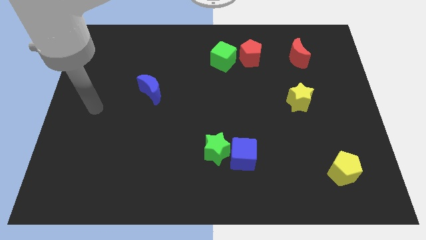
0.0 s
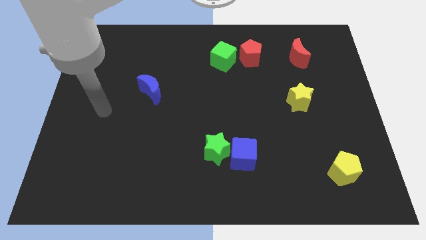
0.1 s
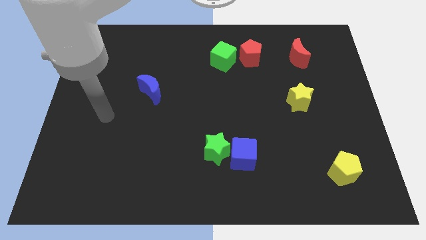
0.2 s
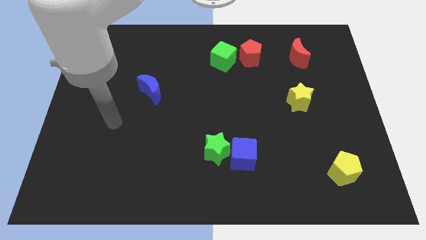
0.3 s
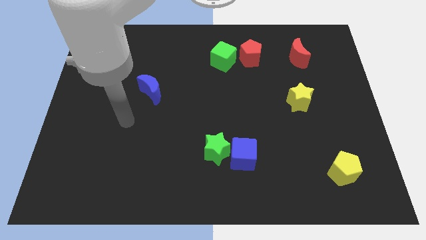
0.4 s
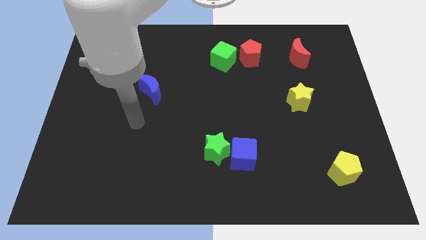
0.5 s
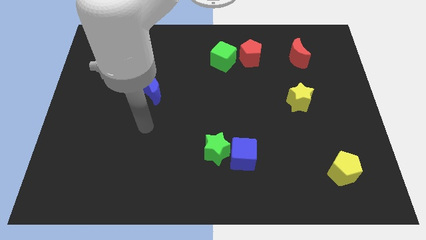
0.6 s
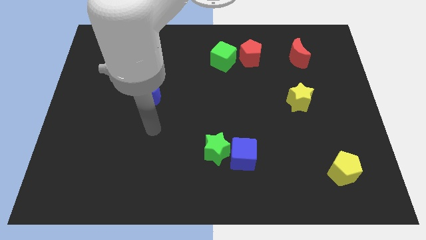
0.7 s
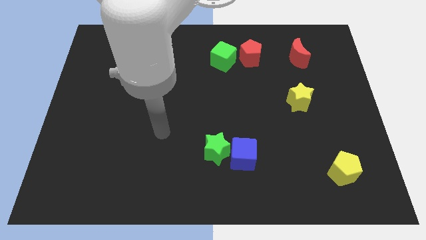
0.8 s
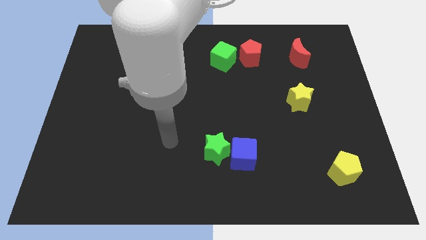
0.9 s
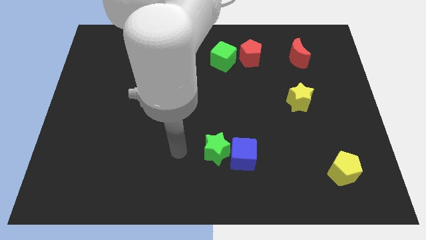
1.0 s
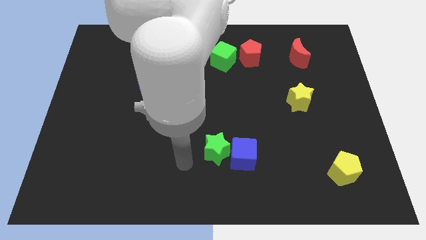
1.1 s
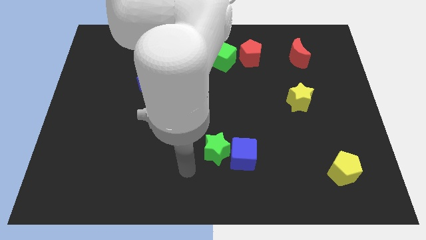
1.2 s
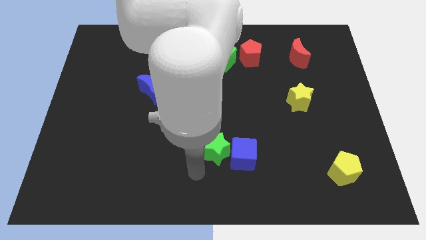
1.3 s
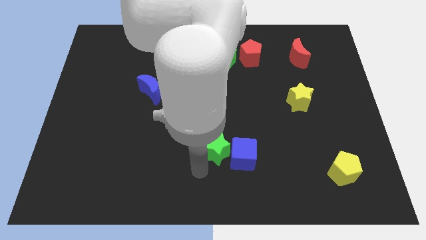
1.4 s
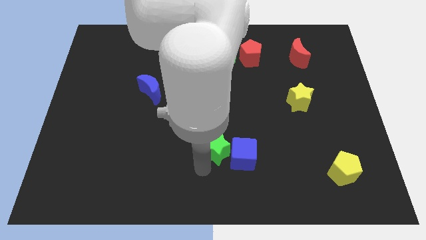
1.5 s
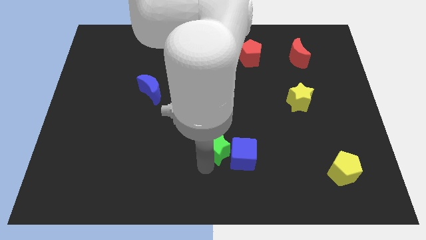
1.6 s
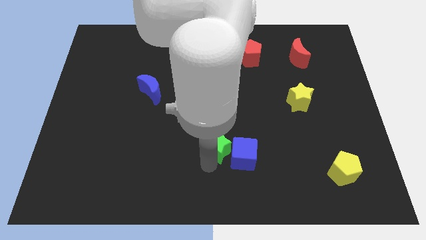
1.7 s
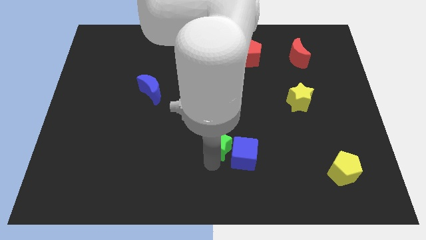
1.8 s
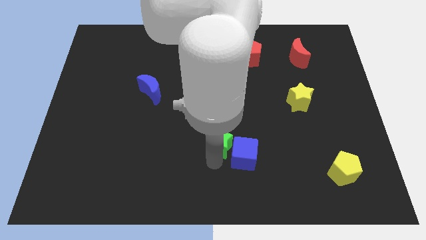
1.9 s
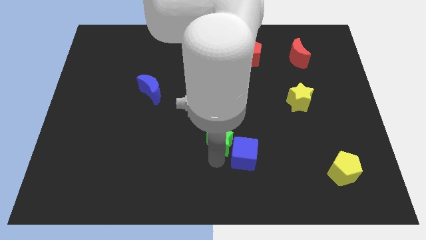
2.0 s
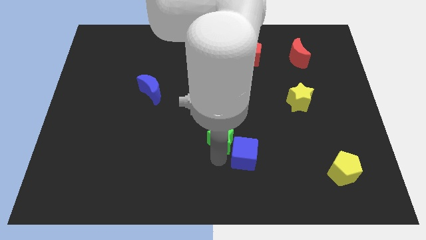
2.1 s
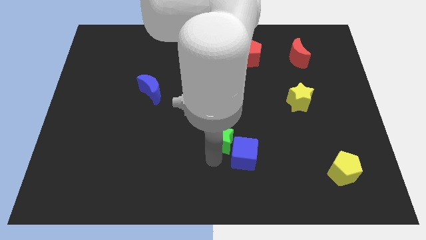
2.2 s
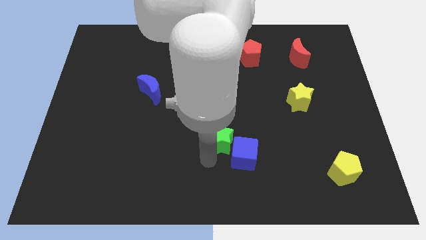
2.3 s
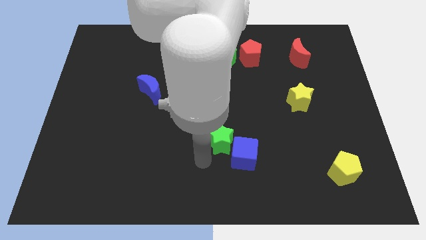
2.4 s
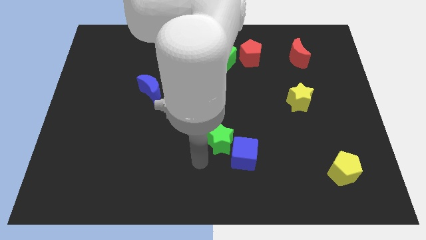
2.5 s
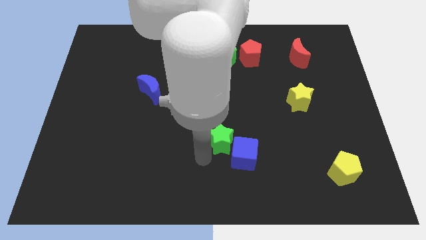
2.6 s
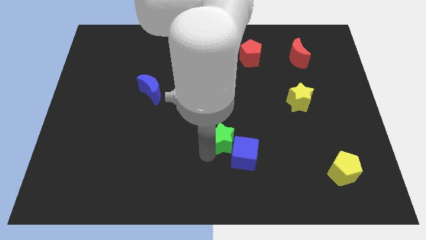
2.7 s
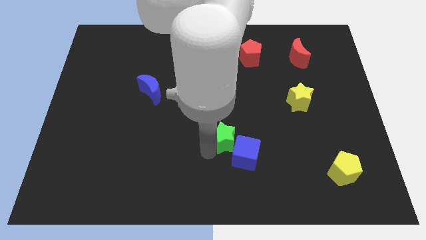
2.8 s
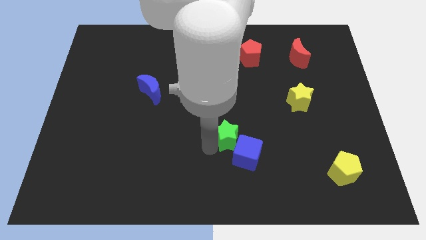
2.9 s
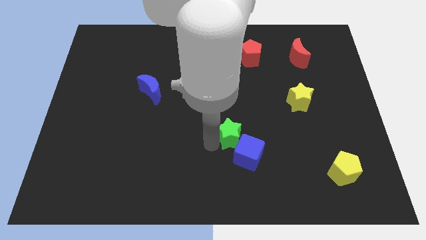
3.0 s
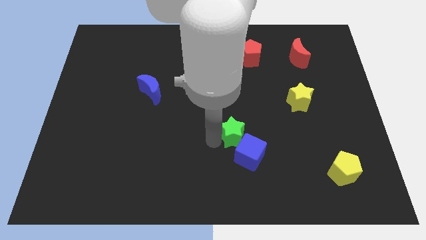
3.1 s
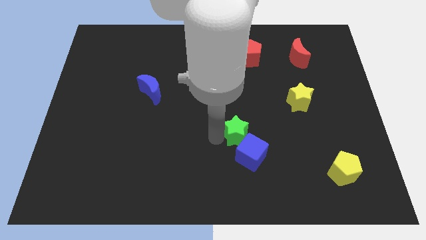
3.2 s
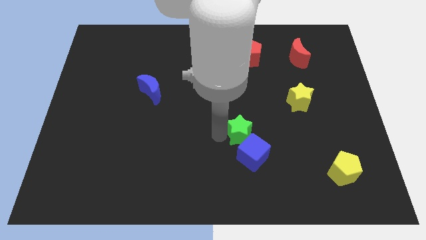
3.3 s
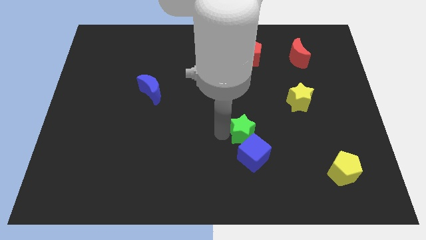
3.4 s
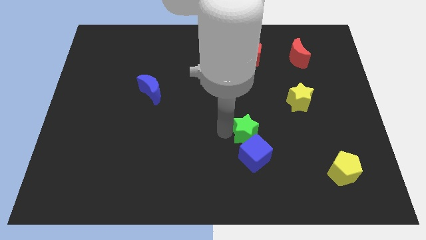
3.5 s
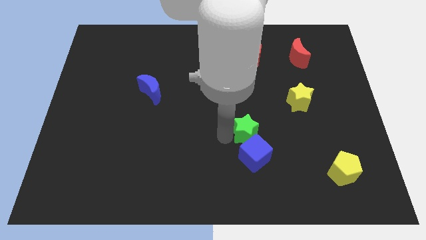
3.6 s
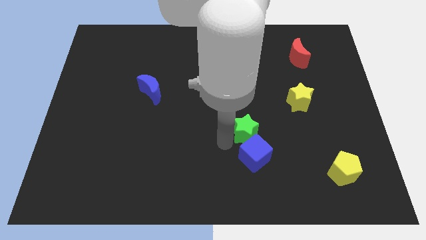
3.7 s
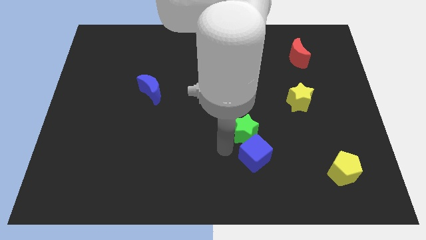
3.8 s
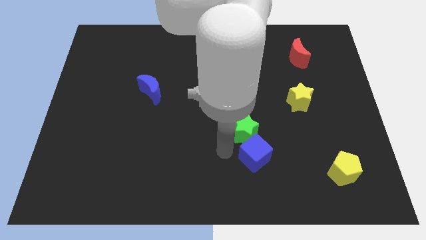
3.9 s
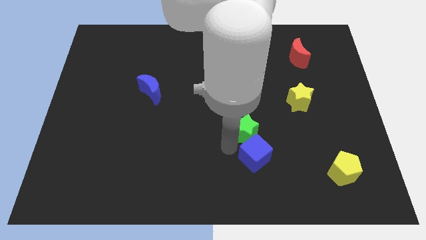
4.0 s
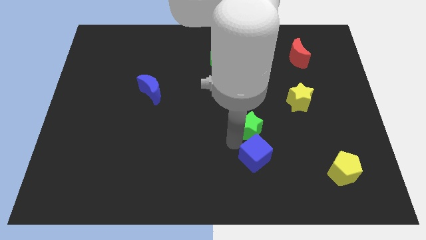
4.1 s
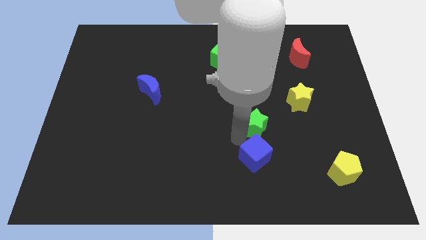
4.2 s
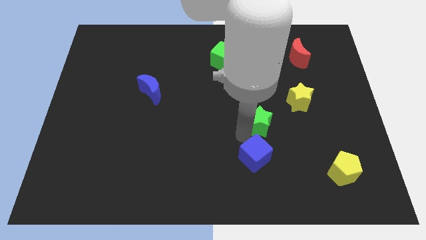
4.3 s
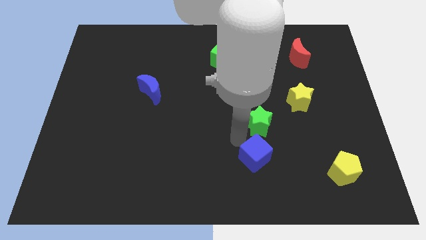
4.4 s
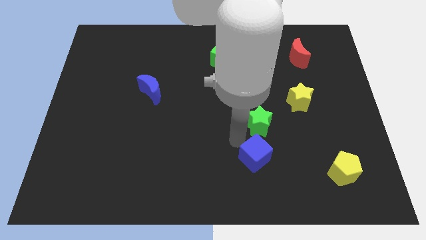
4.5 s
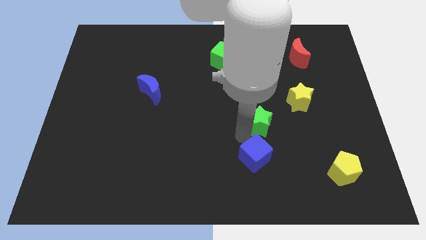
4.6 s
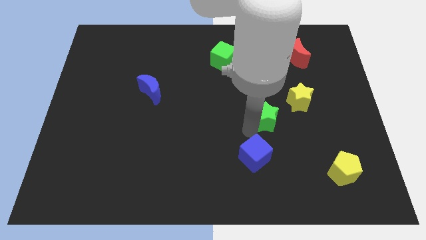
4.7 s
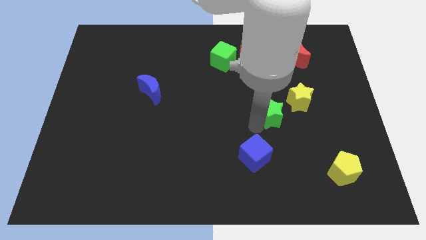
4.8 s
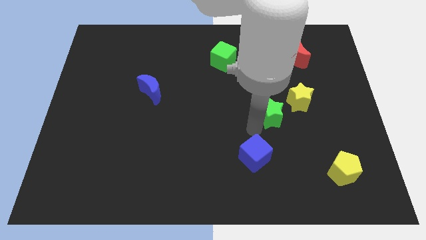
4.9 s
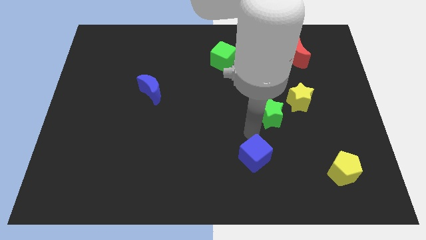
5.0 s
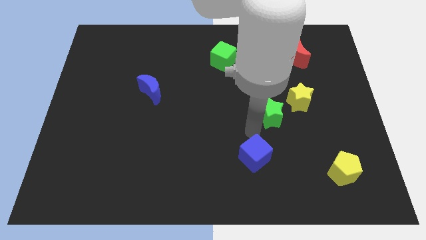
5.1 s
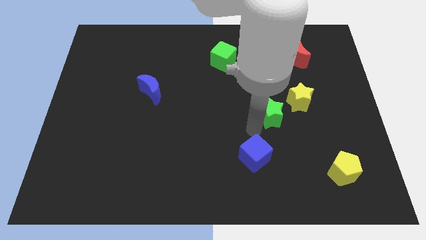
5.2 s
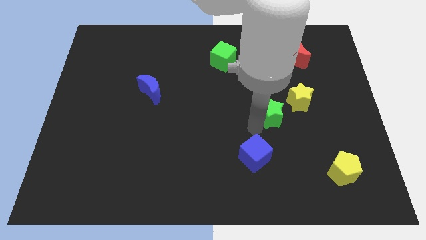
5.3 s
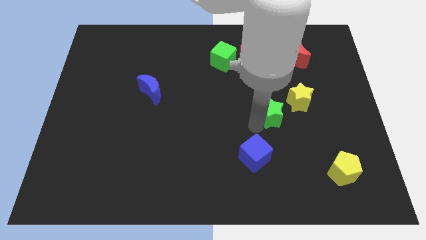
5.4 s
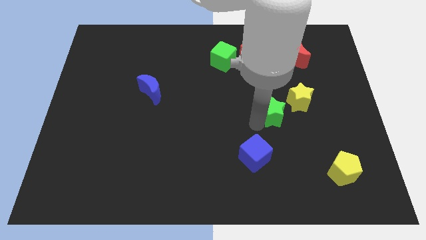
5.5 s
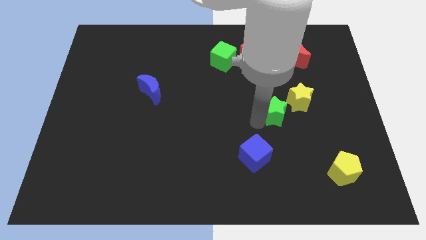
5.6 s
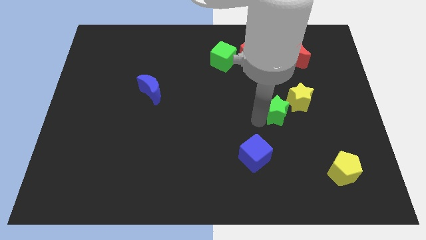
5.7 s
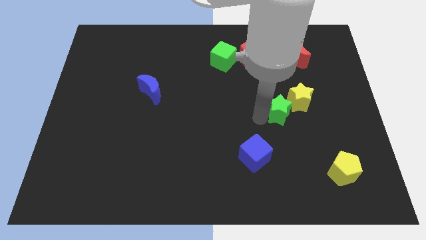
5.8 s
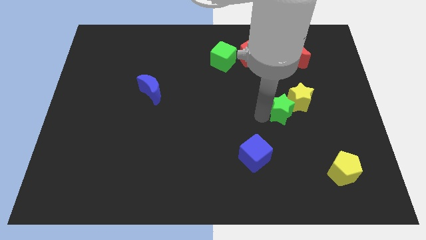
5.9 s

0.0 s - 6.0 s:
slide the green star close to the yellow star

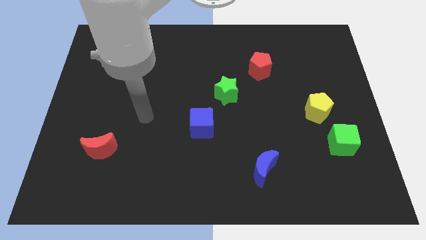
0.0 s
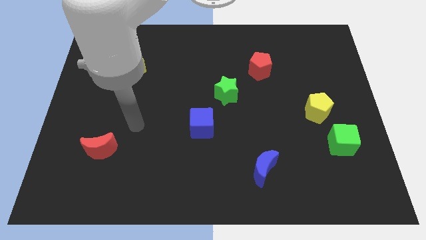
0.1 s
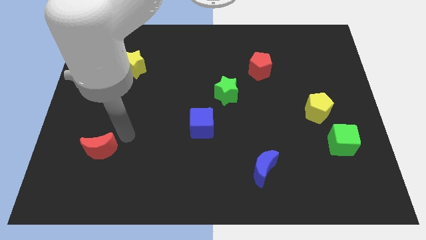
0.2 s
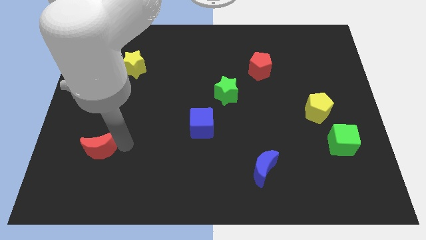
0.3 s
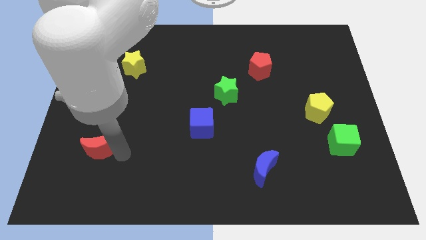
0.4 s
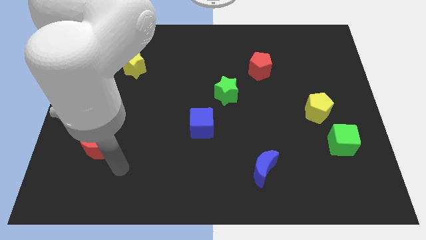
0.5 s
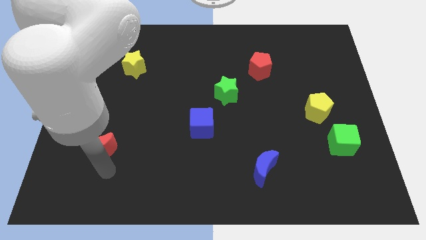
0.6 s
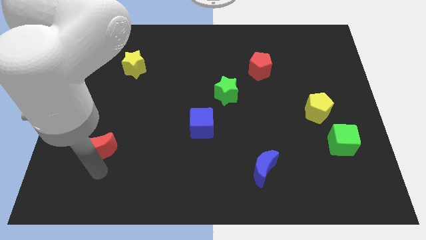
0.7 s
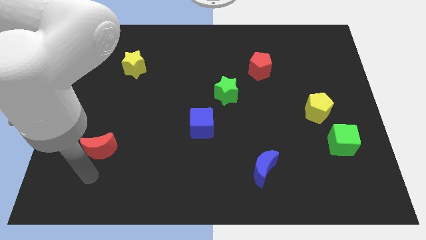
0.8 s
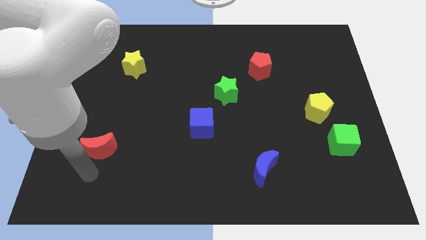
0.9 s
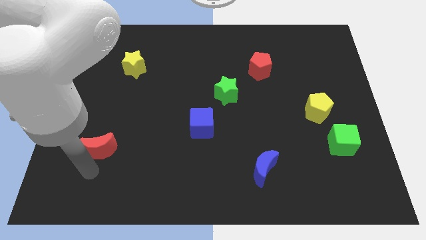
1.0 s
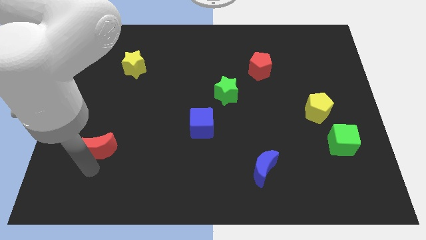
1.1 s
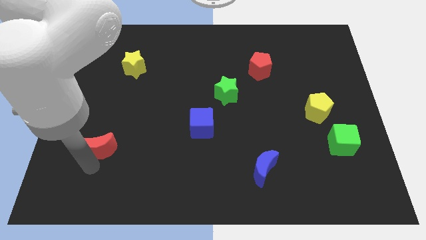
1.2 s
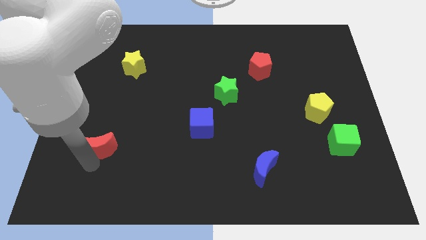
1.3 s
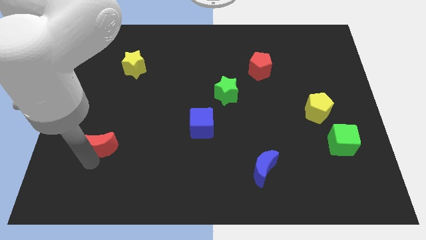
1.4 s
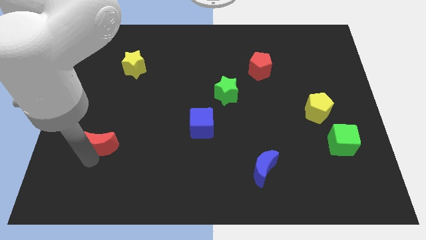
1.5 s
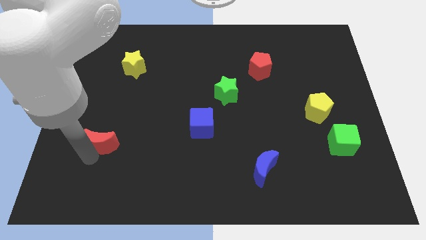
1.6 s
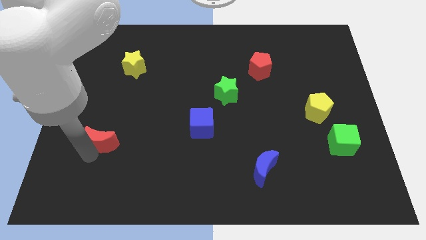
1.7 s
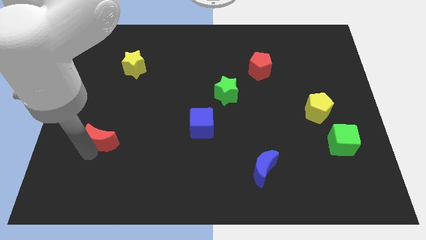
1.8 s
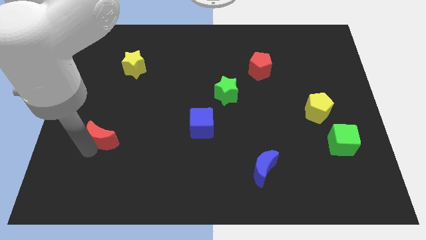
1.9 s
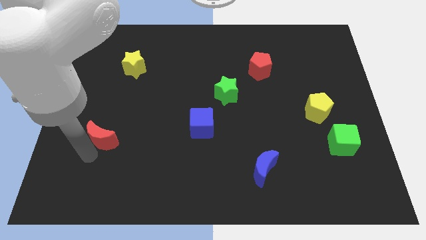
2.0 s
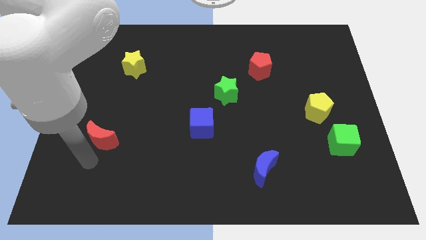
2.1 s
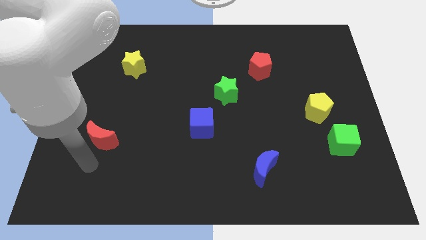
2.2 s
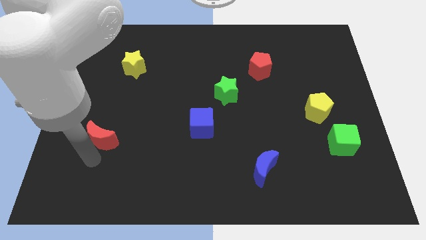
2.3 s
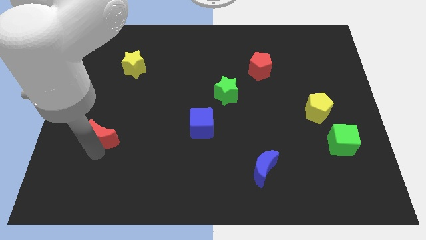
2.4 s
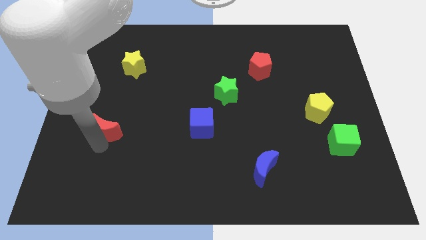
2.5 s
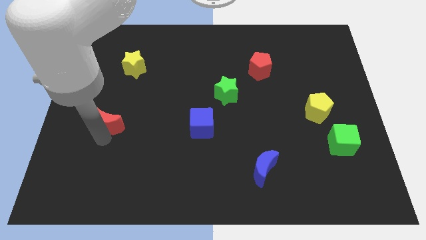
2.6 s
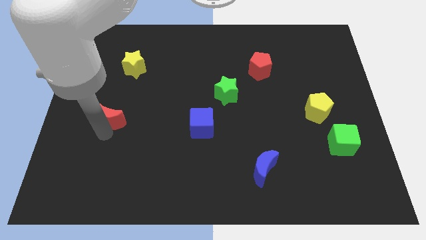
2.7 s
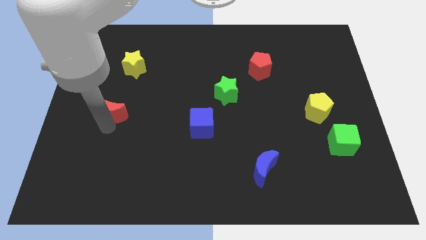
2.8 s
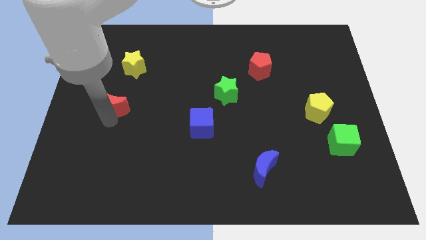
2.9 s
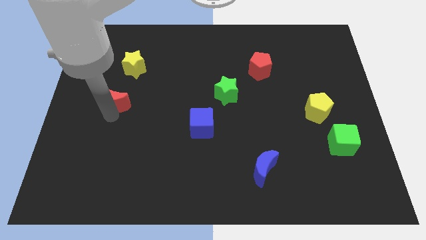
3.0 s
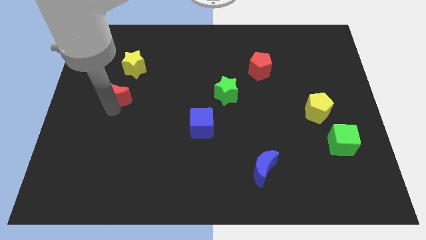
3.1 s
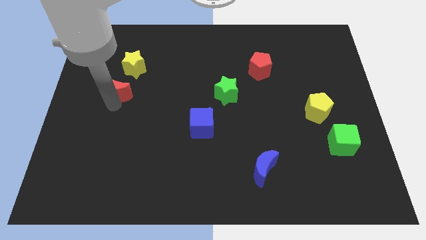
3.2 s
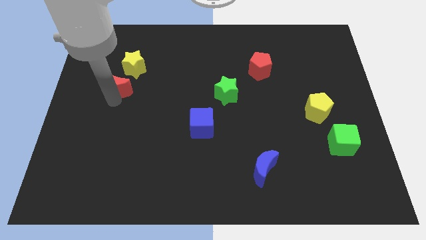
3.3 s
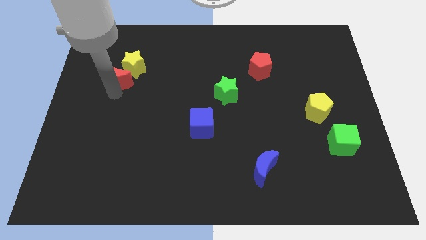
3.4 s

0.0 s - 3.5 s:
push the red moon towards the yellow star
